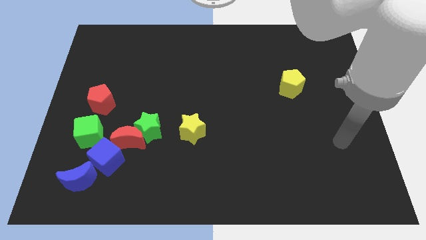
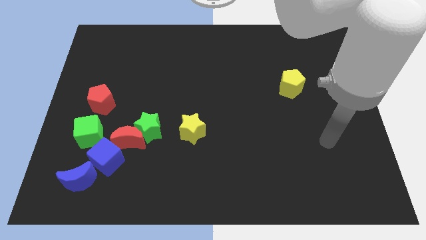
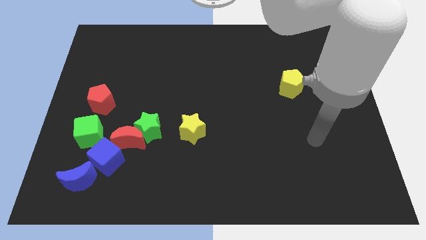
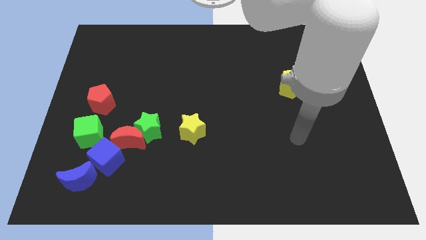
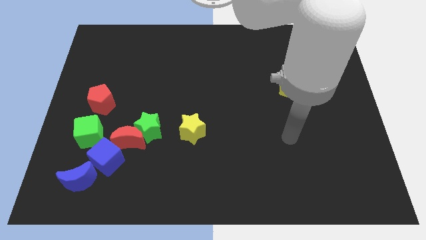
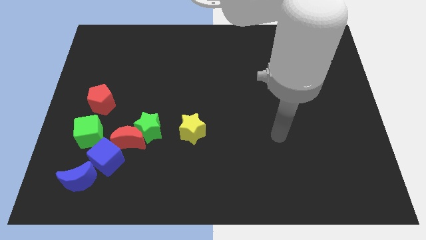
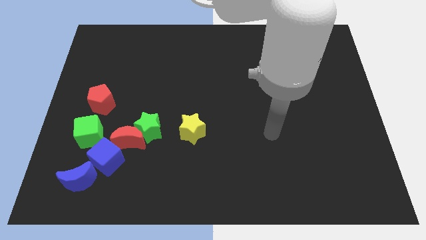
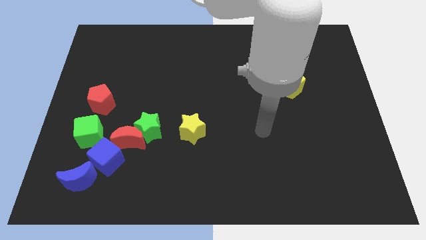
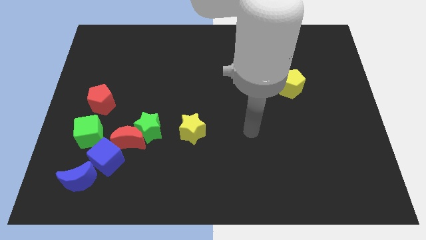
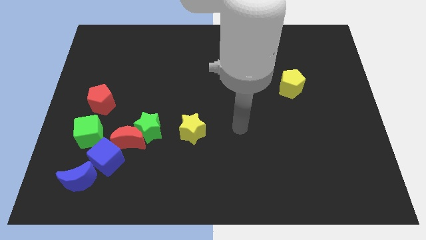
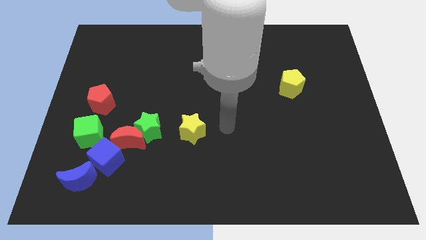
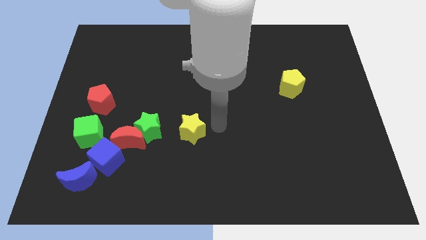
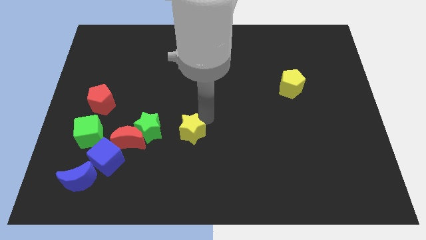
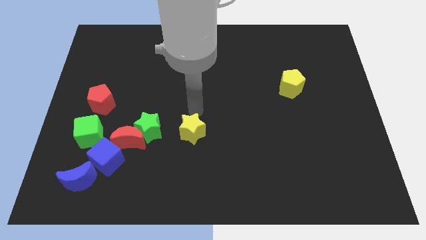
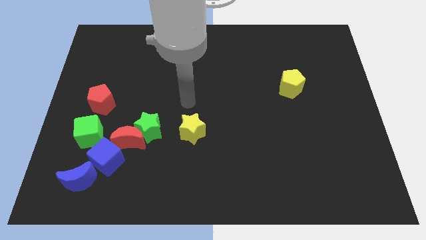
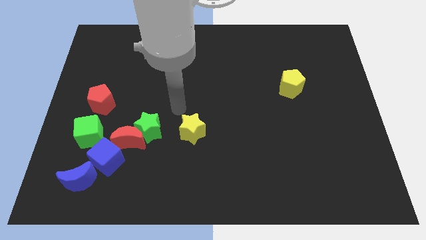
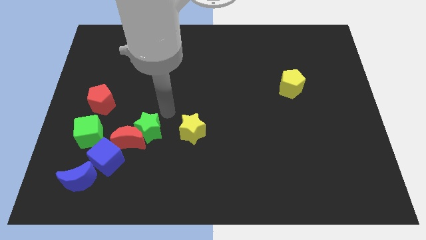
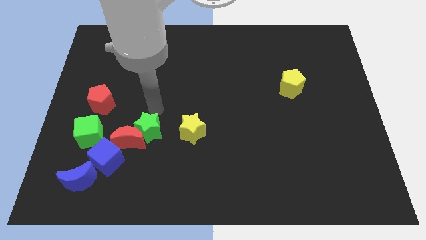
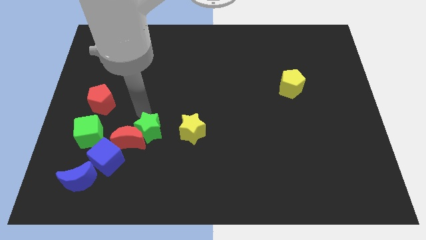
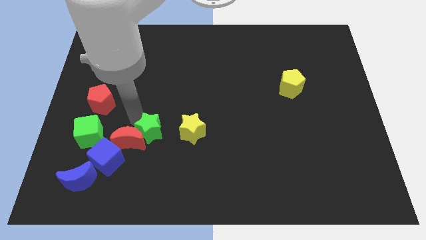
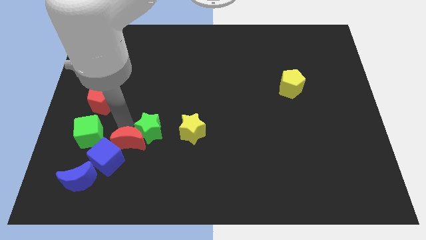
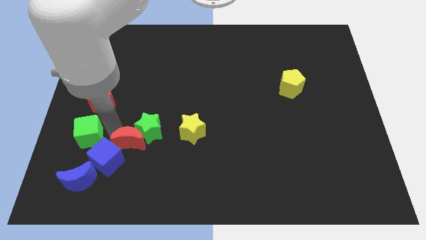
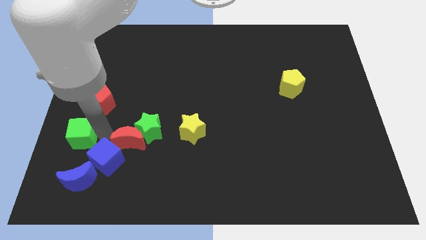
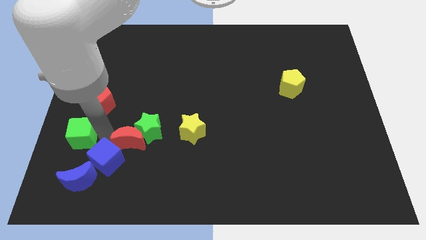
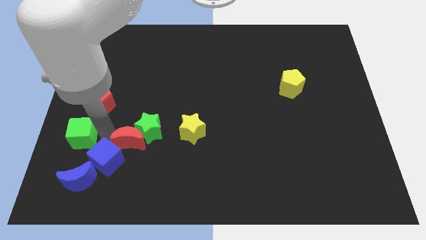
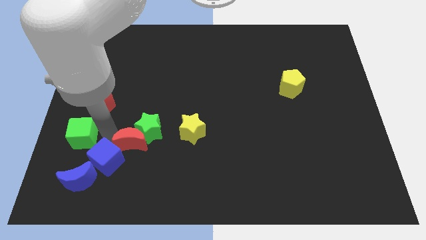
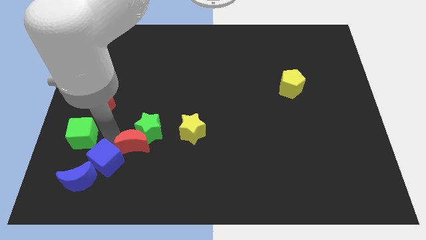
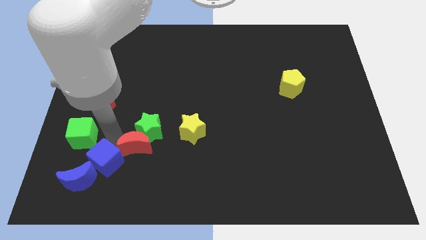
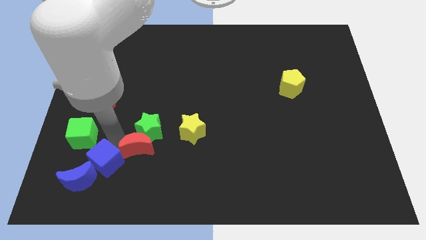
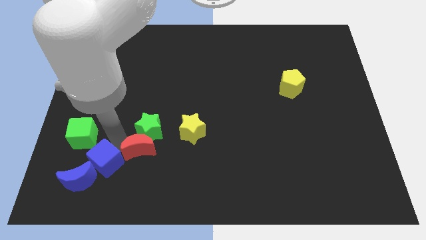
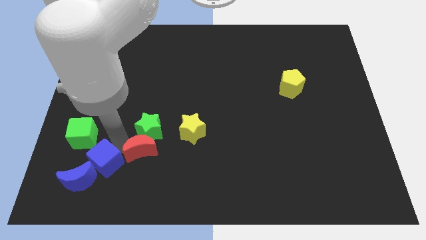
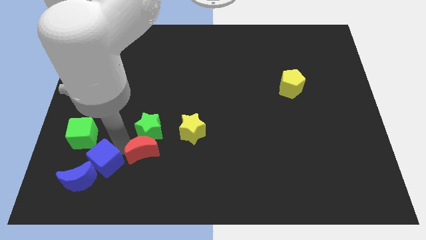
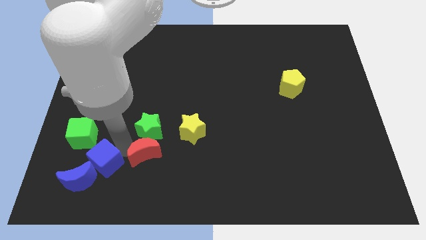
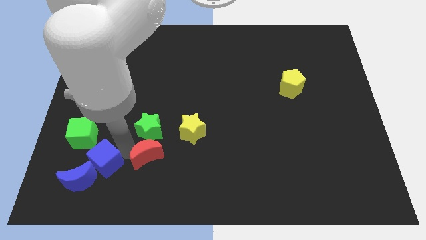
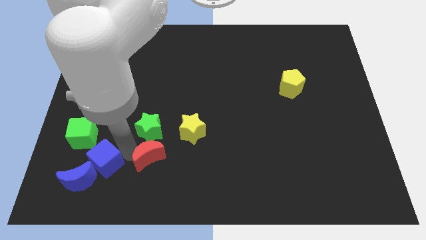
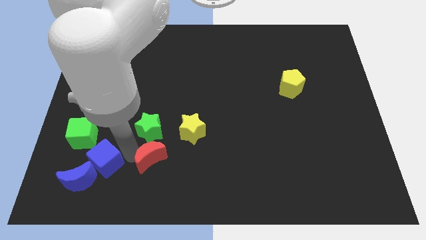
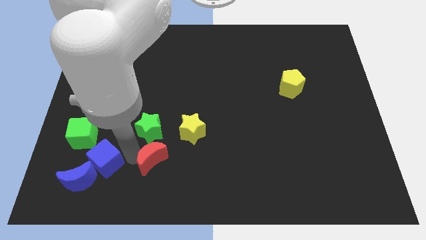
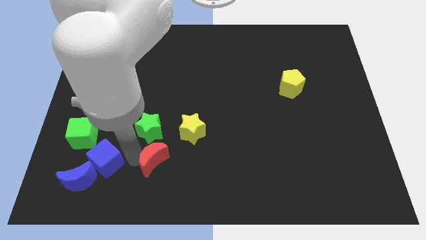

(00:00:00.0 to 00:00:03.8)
move the red moon away from the group of blocks

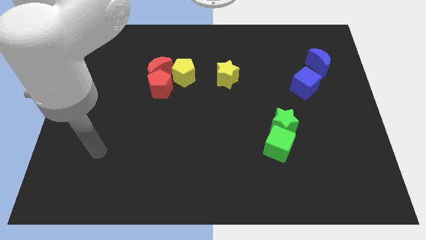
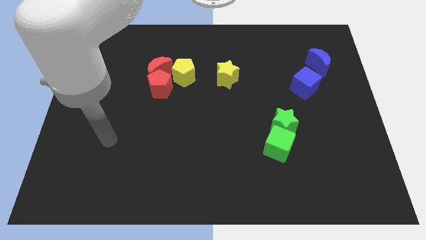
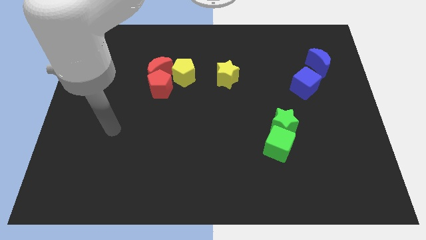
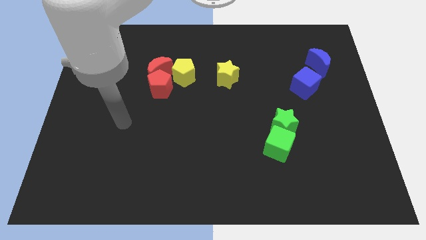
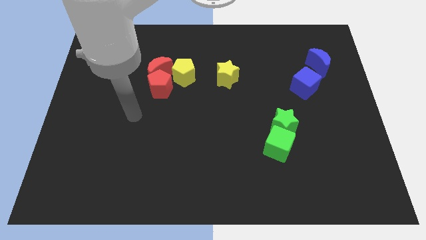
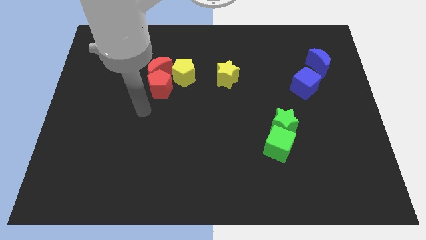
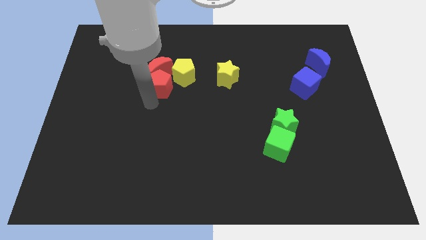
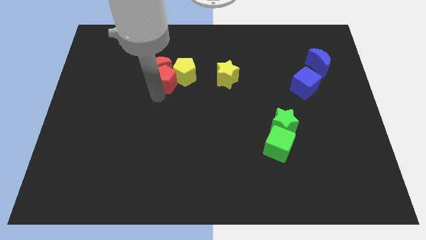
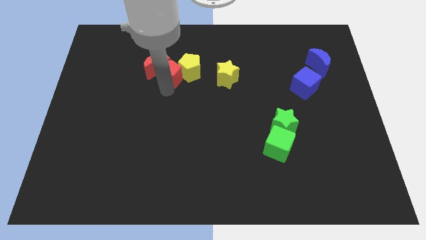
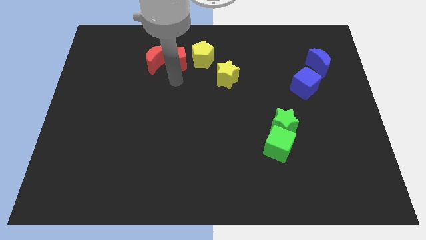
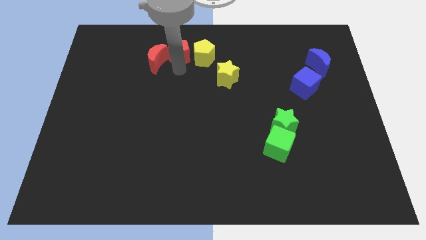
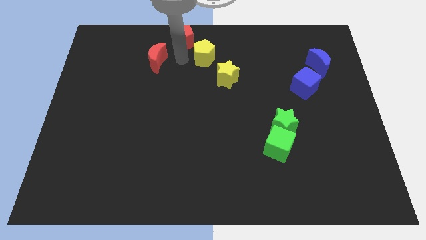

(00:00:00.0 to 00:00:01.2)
separate the red moon from the red pentagon and yellow pentagon

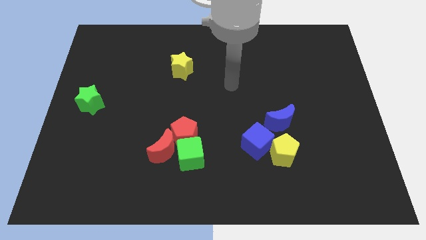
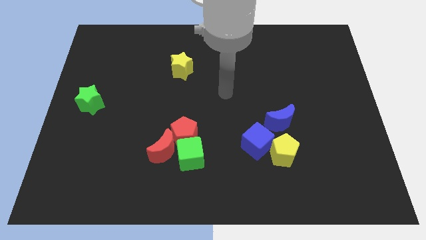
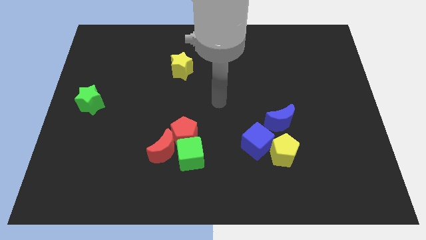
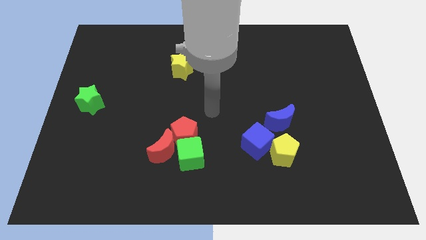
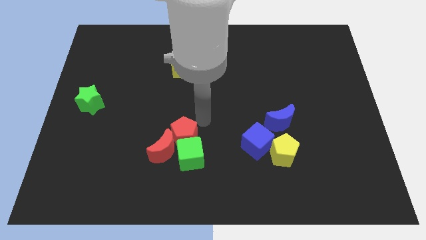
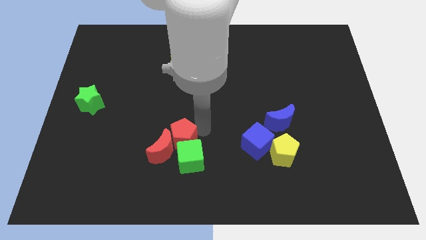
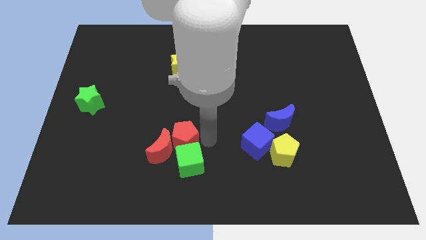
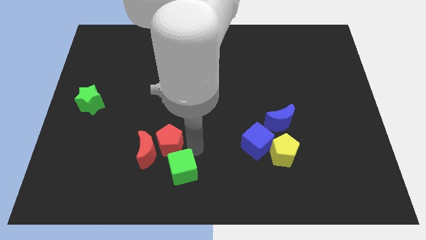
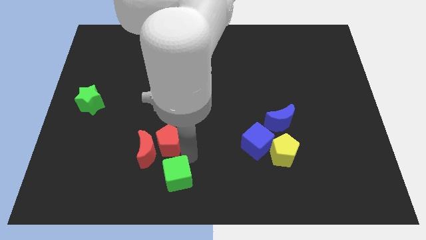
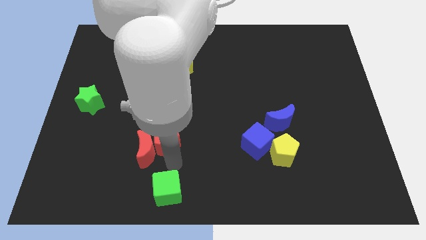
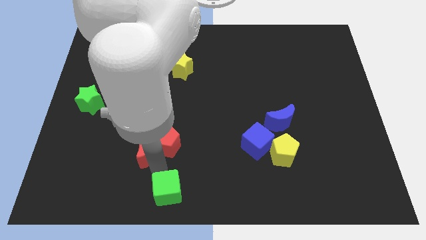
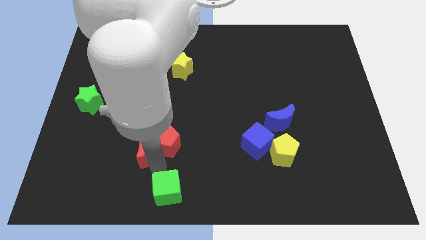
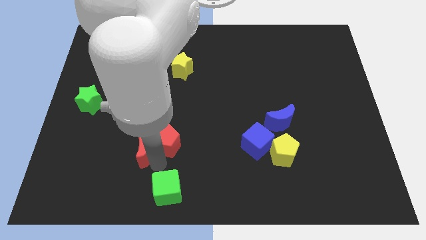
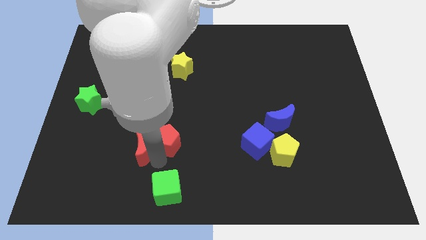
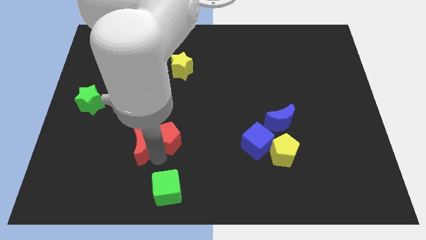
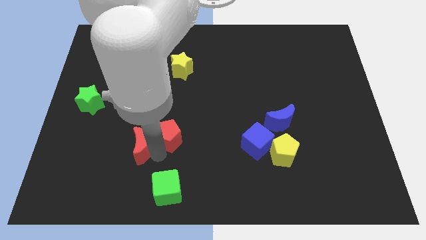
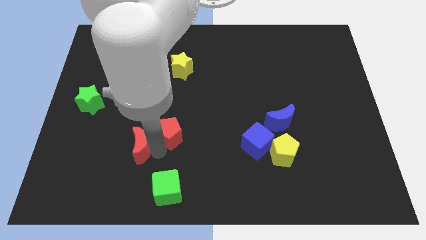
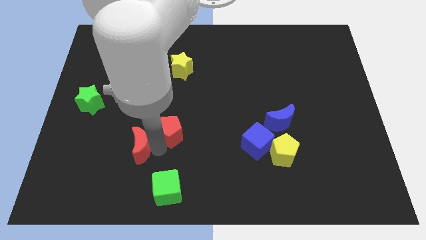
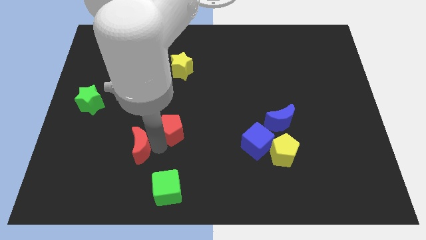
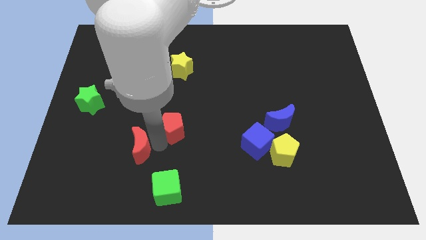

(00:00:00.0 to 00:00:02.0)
separate the red pentagon from the green cube and red moon

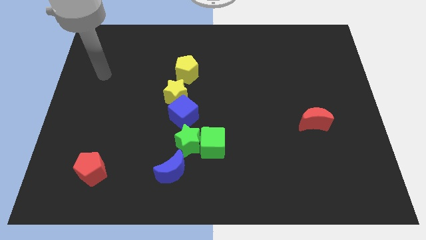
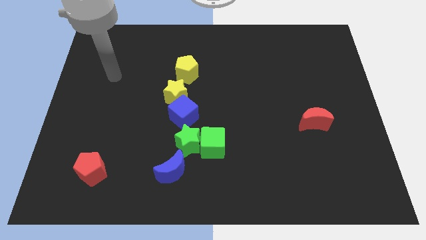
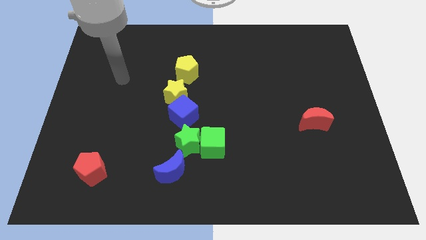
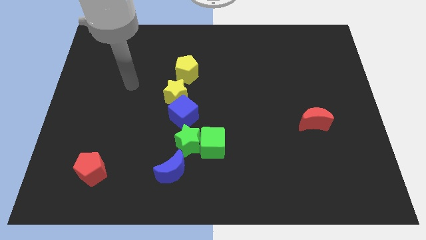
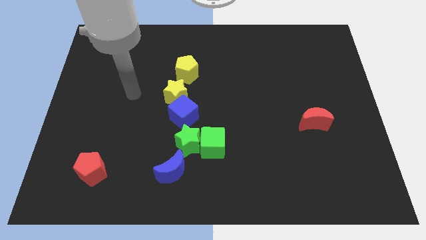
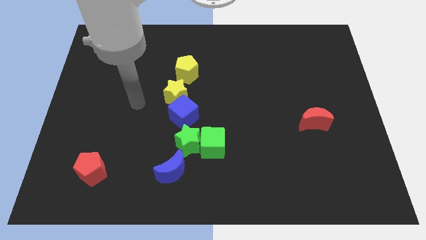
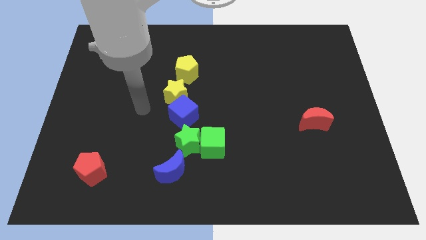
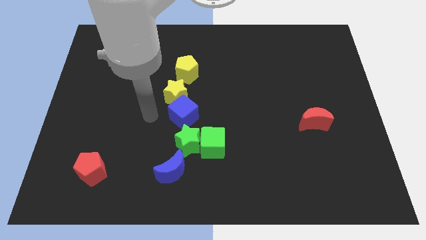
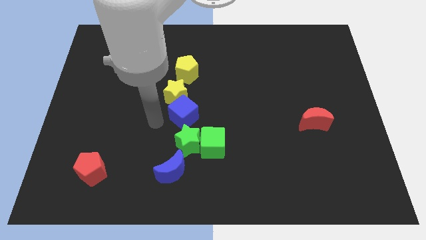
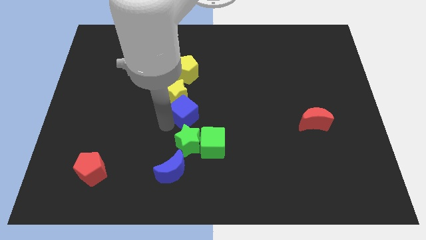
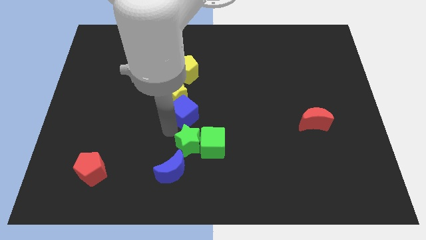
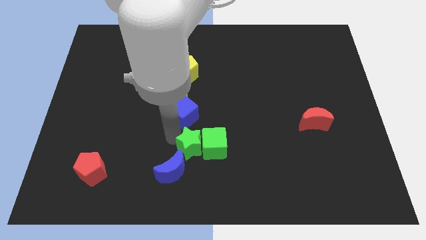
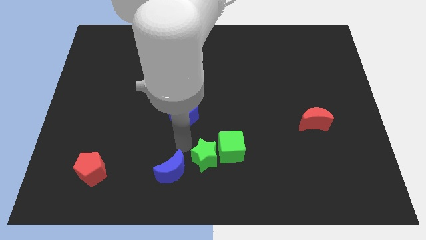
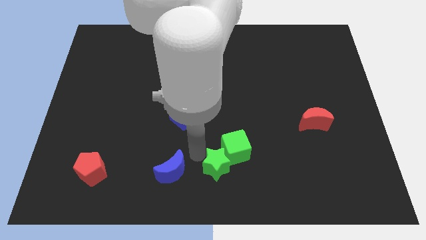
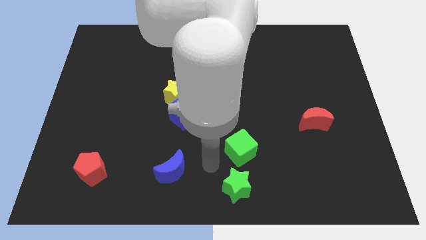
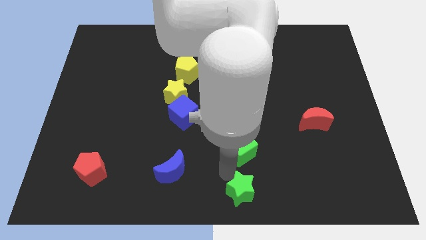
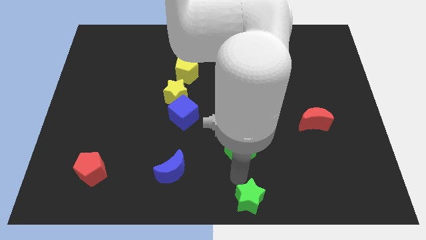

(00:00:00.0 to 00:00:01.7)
separate the green cube from the green star

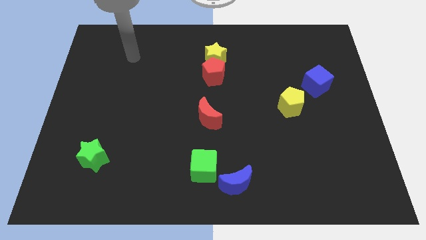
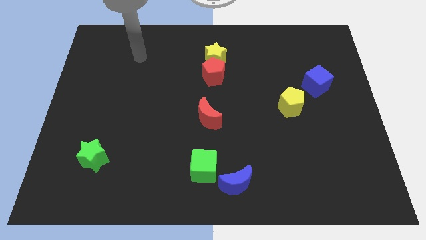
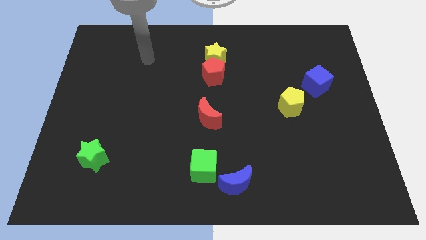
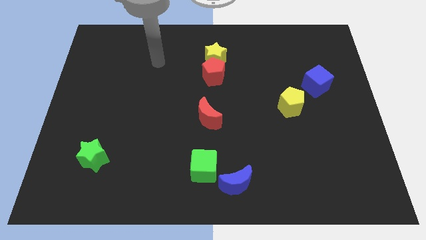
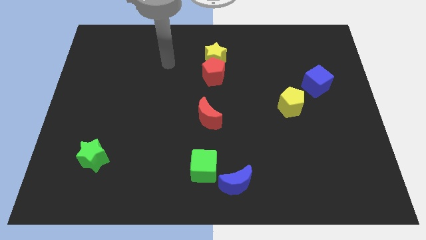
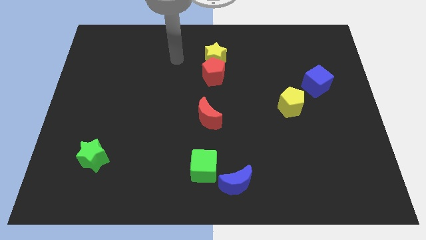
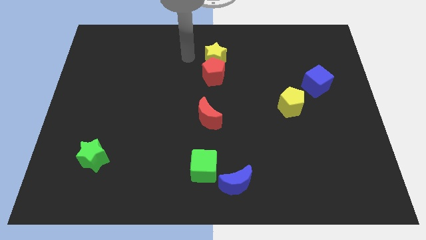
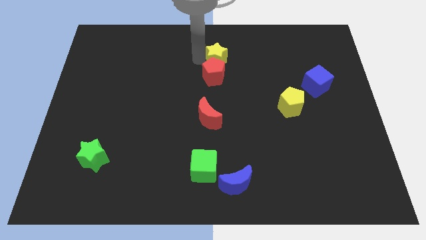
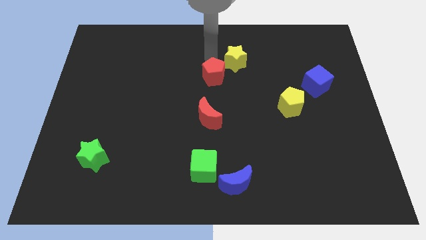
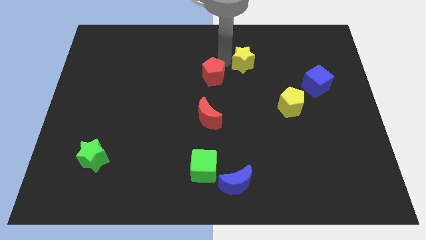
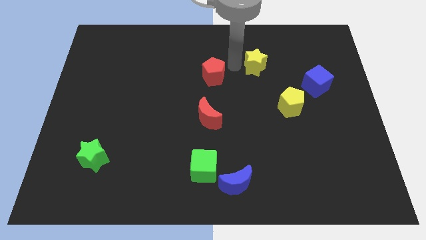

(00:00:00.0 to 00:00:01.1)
move the red pentagon away from the yellow star
